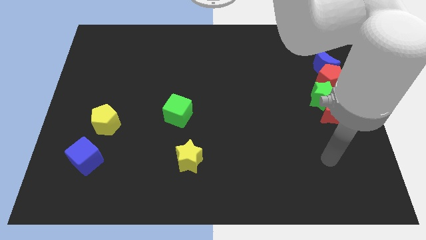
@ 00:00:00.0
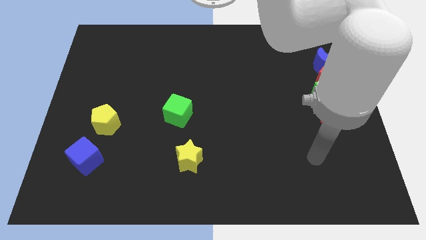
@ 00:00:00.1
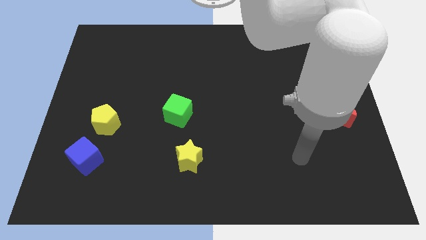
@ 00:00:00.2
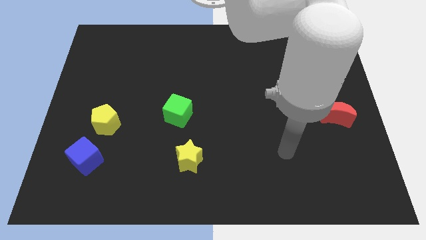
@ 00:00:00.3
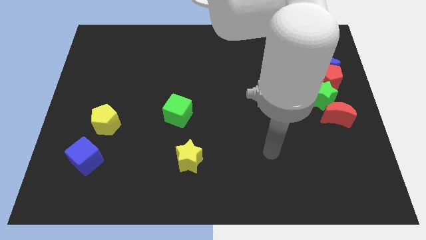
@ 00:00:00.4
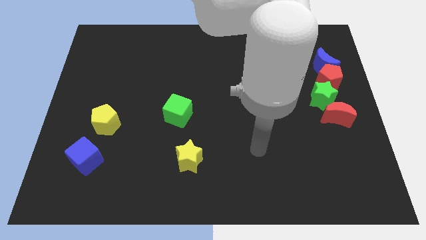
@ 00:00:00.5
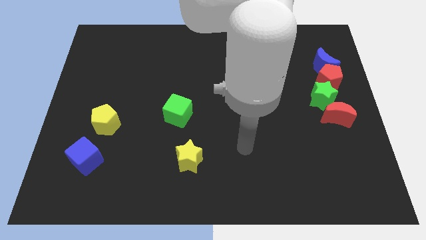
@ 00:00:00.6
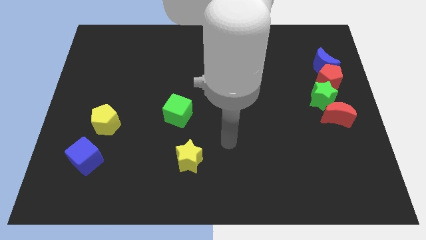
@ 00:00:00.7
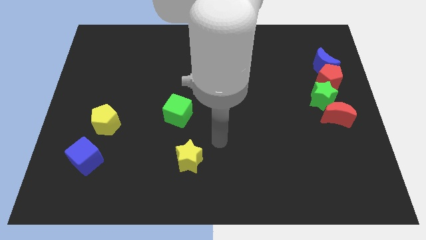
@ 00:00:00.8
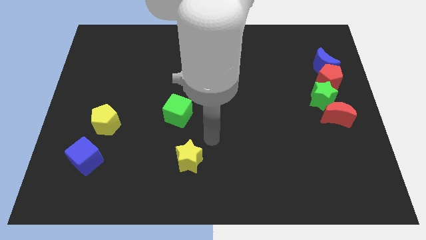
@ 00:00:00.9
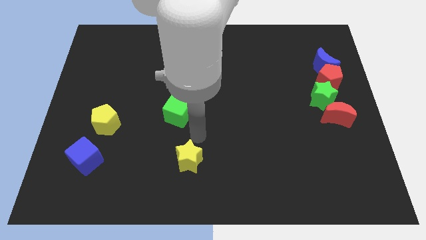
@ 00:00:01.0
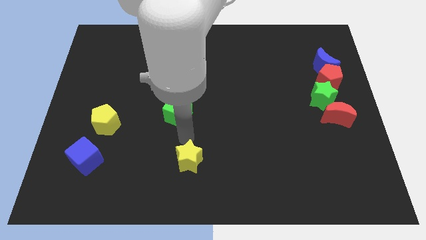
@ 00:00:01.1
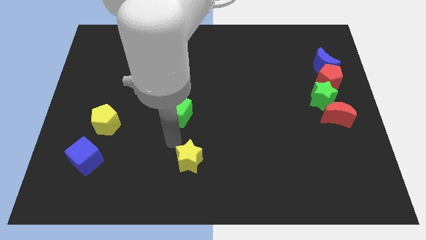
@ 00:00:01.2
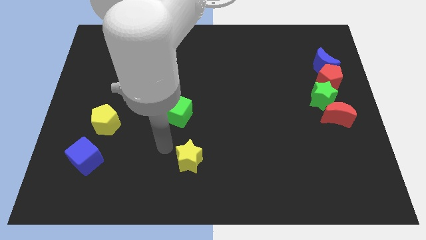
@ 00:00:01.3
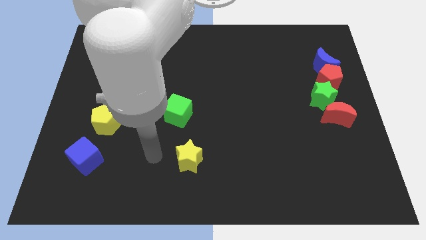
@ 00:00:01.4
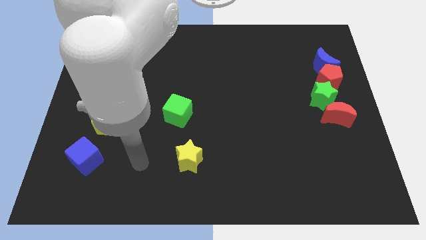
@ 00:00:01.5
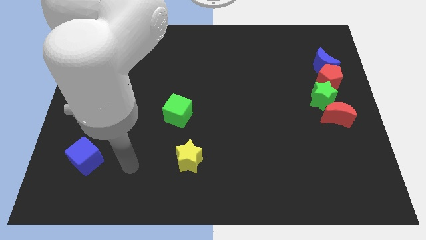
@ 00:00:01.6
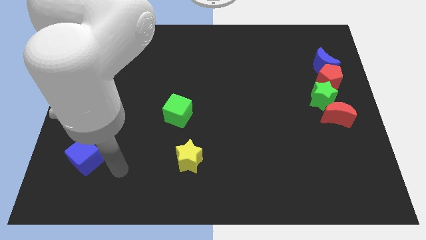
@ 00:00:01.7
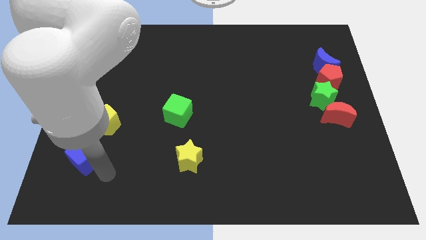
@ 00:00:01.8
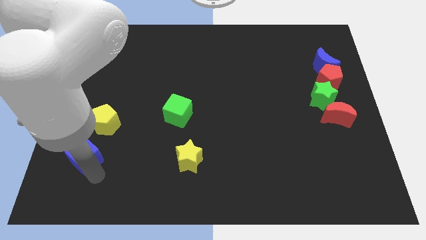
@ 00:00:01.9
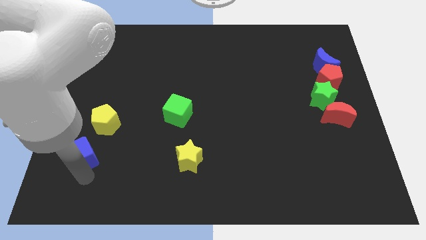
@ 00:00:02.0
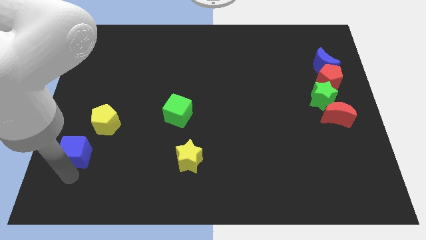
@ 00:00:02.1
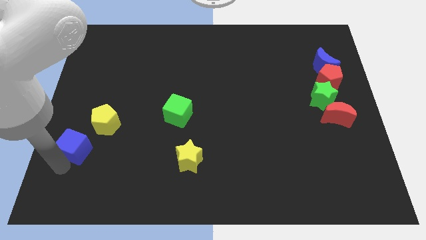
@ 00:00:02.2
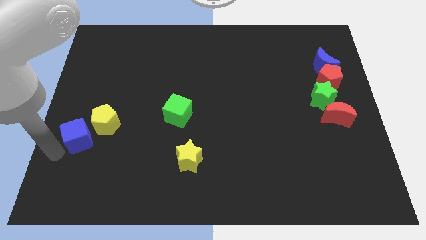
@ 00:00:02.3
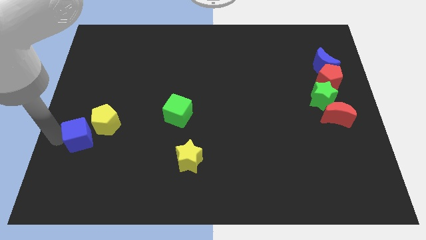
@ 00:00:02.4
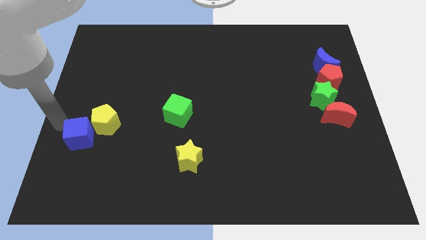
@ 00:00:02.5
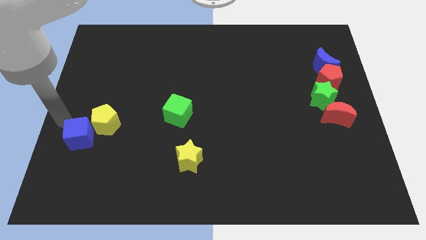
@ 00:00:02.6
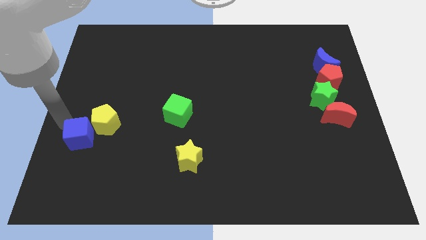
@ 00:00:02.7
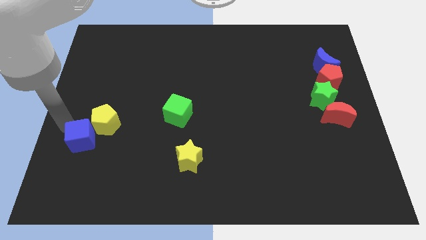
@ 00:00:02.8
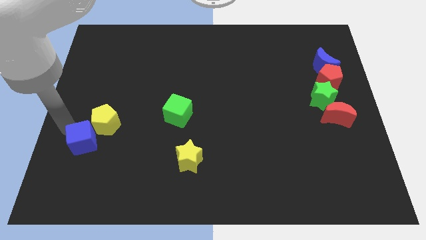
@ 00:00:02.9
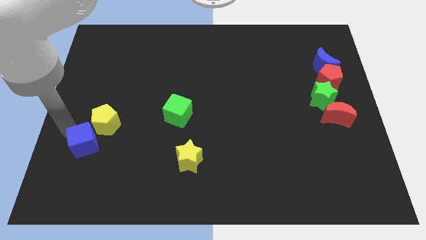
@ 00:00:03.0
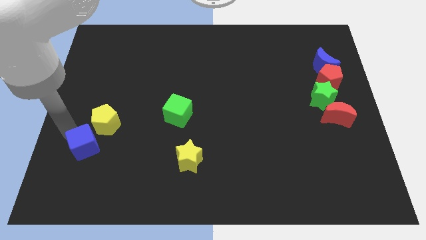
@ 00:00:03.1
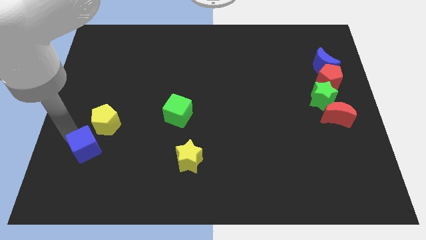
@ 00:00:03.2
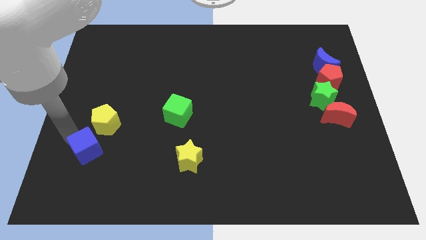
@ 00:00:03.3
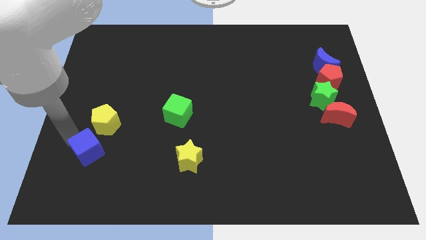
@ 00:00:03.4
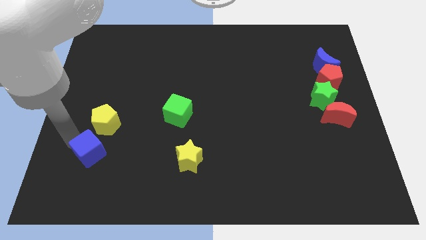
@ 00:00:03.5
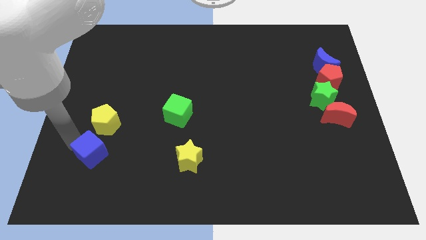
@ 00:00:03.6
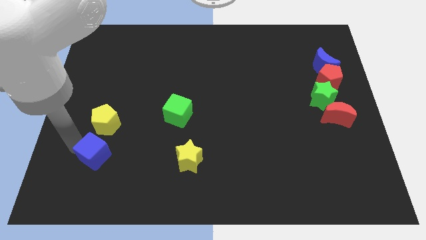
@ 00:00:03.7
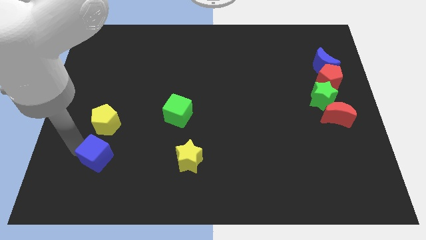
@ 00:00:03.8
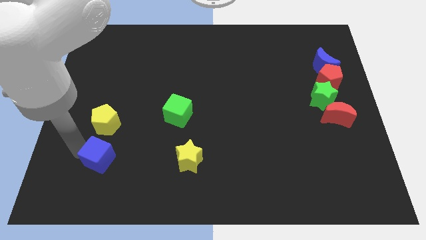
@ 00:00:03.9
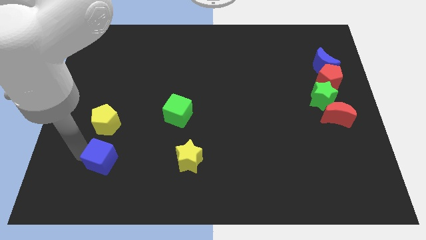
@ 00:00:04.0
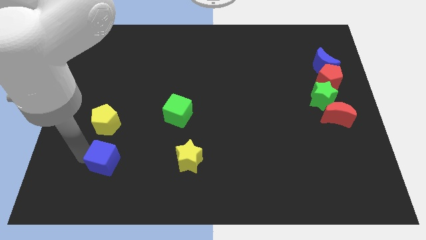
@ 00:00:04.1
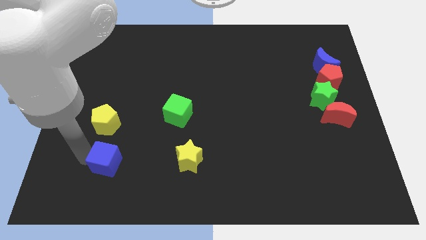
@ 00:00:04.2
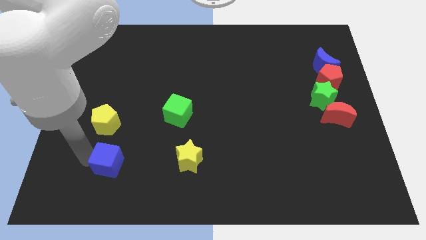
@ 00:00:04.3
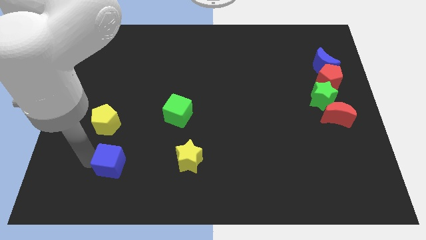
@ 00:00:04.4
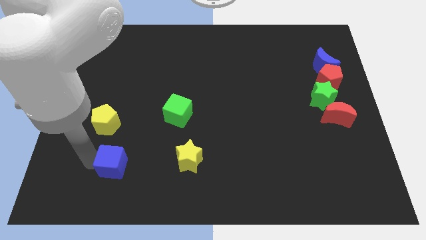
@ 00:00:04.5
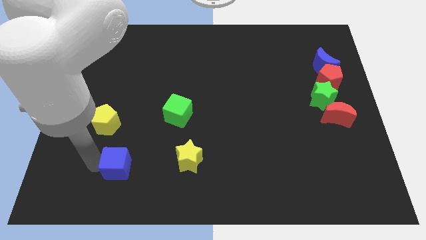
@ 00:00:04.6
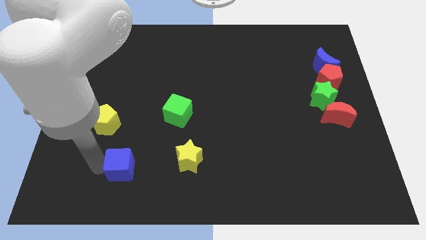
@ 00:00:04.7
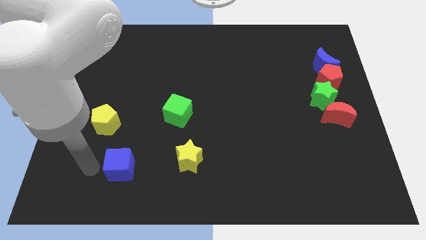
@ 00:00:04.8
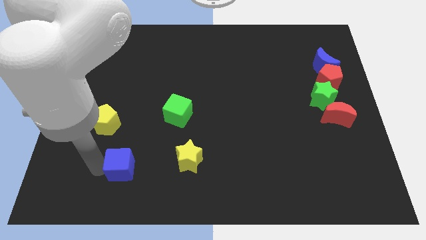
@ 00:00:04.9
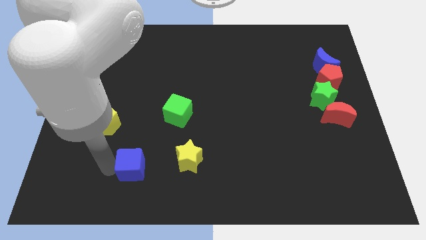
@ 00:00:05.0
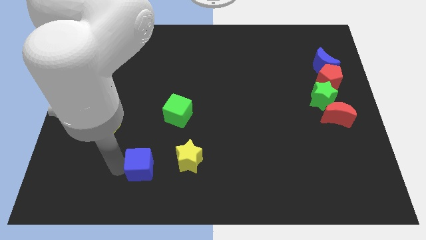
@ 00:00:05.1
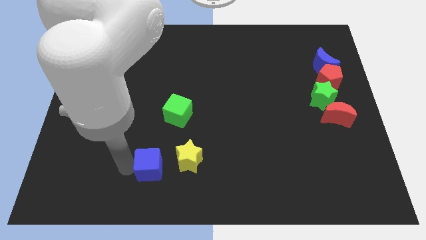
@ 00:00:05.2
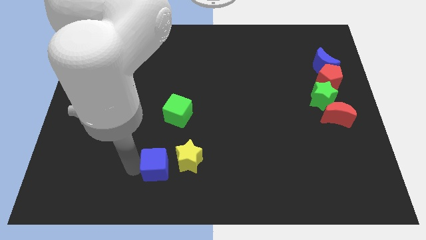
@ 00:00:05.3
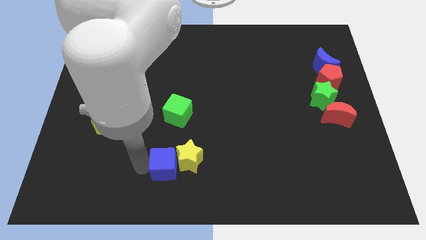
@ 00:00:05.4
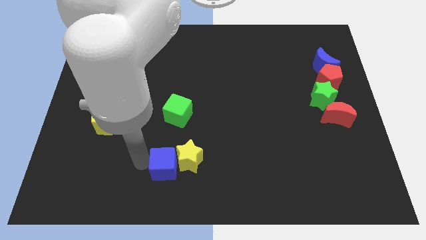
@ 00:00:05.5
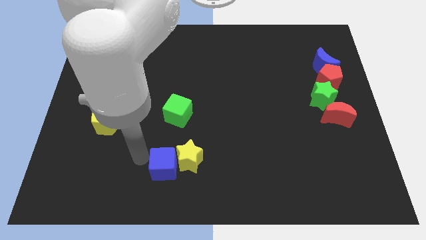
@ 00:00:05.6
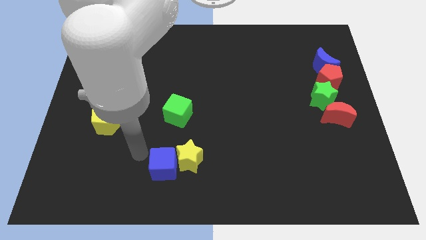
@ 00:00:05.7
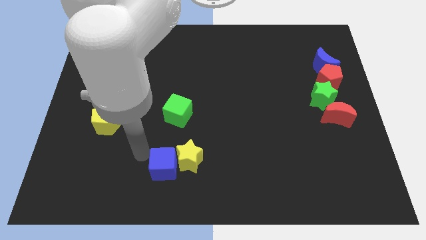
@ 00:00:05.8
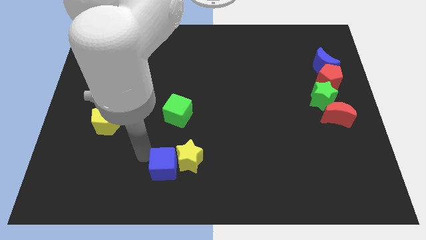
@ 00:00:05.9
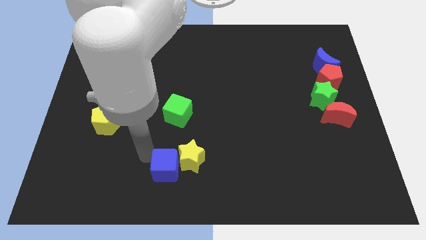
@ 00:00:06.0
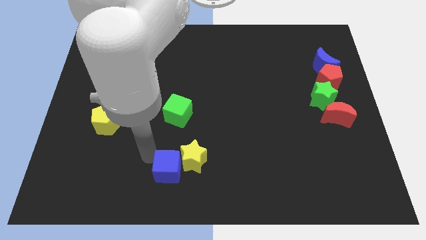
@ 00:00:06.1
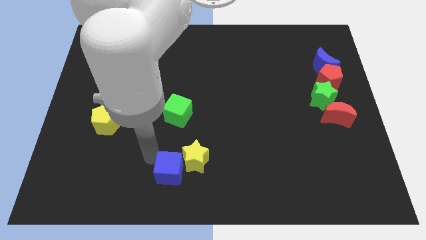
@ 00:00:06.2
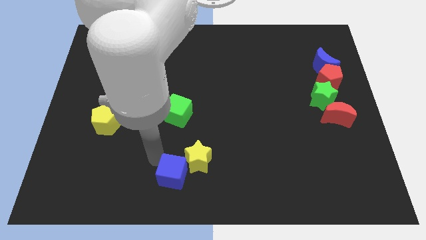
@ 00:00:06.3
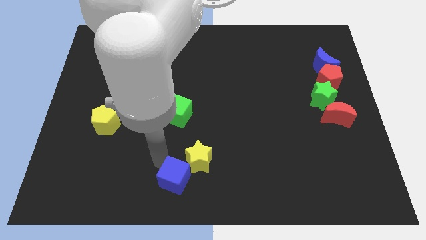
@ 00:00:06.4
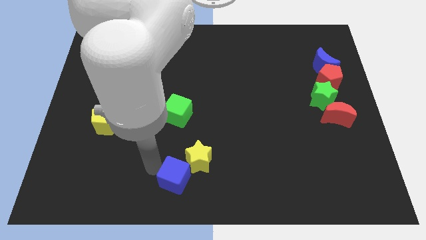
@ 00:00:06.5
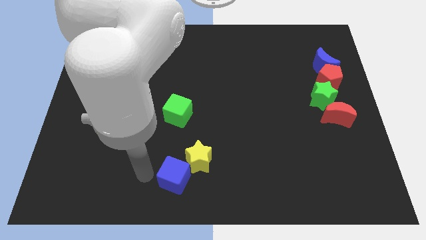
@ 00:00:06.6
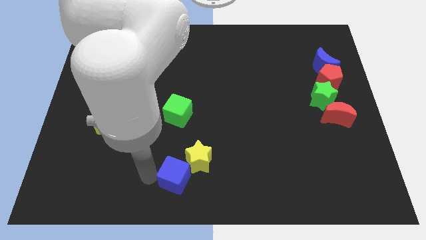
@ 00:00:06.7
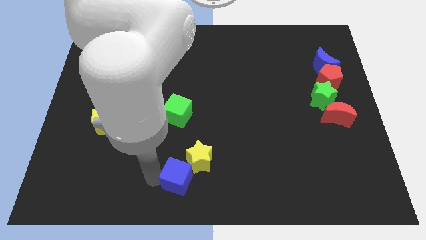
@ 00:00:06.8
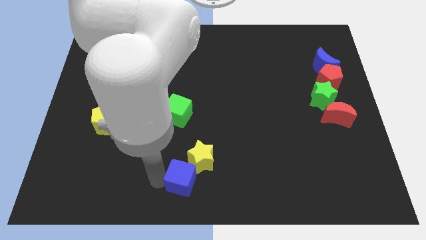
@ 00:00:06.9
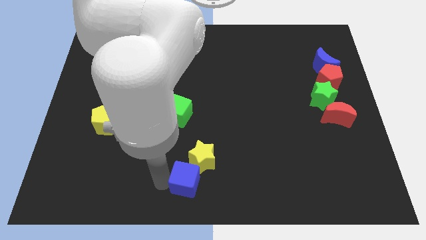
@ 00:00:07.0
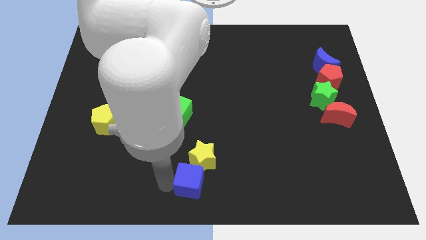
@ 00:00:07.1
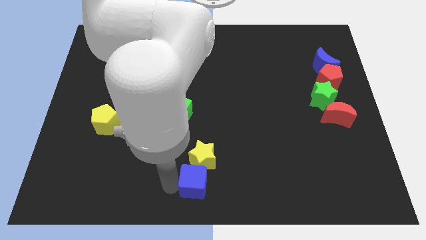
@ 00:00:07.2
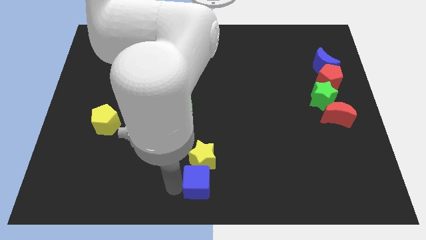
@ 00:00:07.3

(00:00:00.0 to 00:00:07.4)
move the blue cube to the bottom right side of the yellow star
